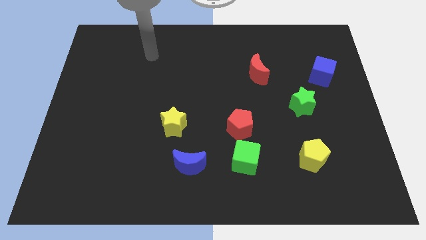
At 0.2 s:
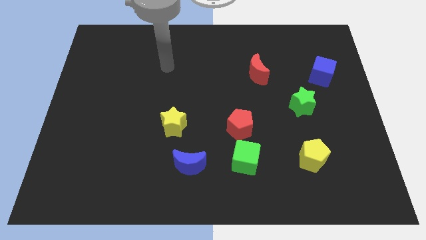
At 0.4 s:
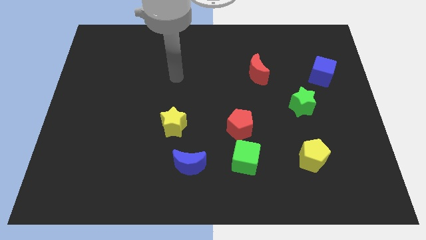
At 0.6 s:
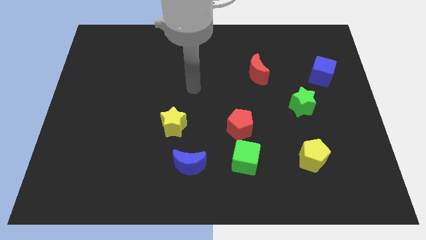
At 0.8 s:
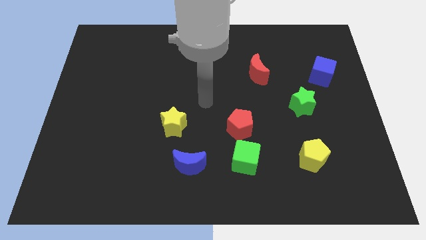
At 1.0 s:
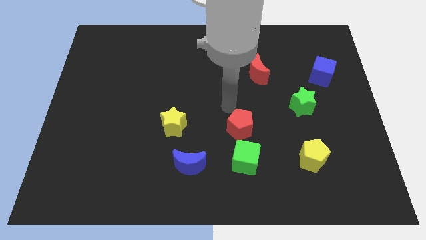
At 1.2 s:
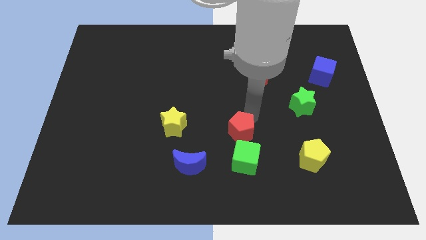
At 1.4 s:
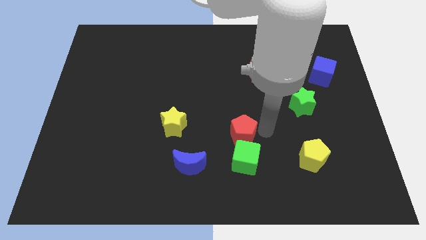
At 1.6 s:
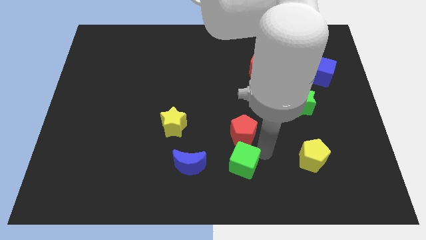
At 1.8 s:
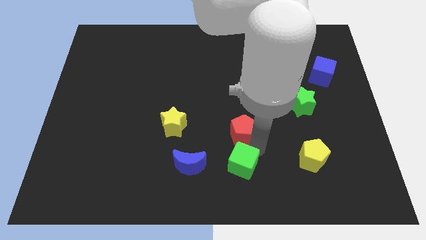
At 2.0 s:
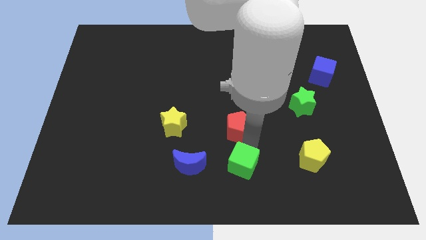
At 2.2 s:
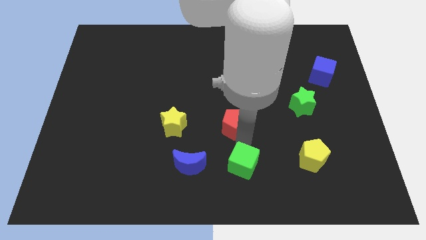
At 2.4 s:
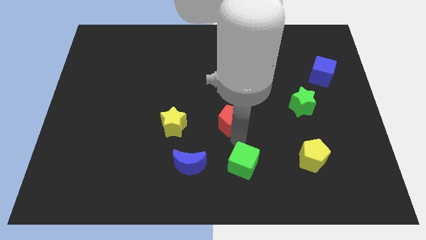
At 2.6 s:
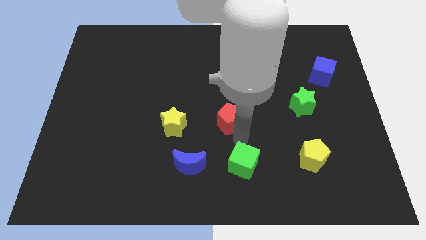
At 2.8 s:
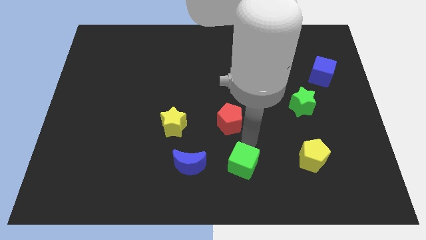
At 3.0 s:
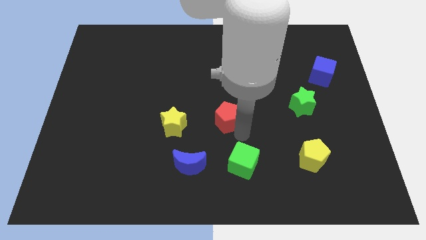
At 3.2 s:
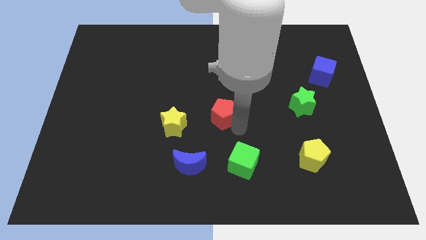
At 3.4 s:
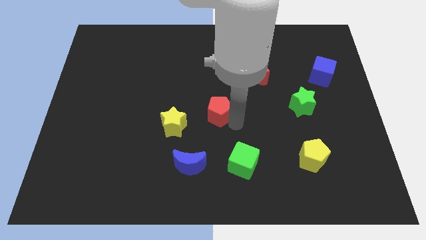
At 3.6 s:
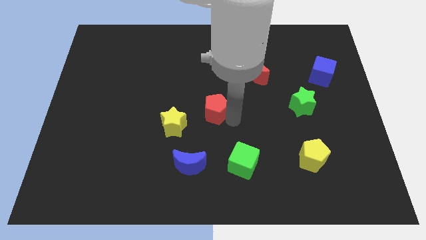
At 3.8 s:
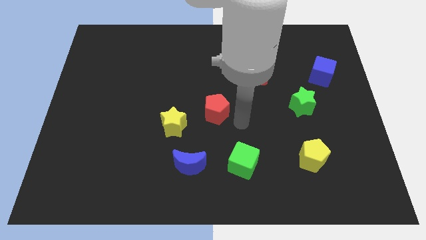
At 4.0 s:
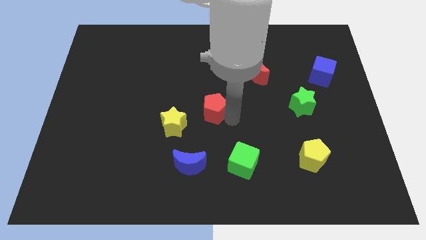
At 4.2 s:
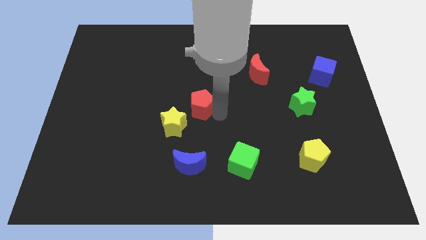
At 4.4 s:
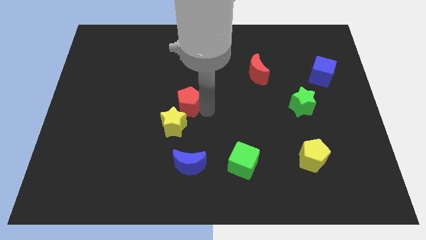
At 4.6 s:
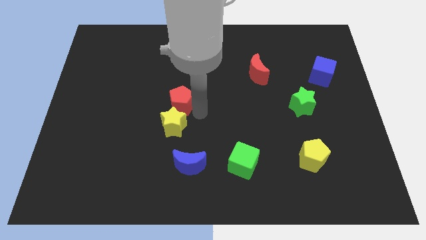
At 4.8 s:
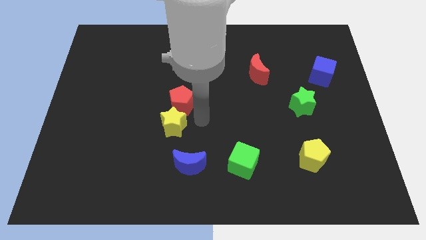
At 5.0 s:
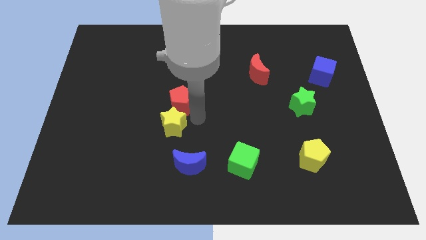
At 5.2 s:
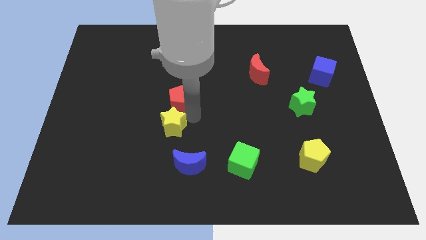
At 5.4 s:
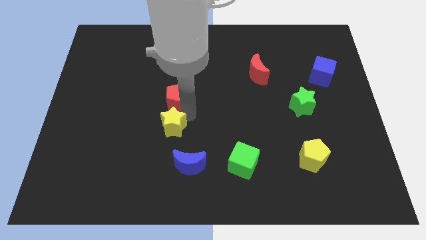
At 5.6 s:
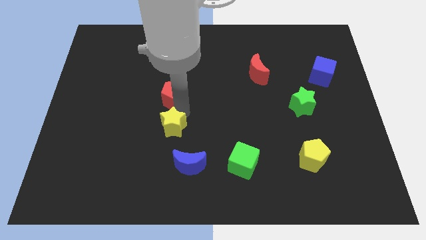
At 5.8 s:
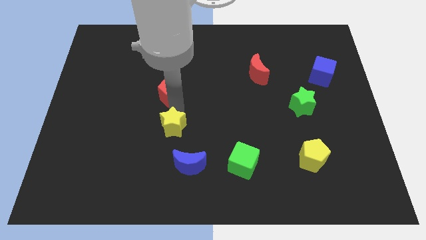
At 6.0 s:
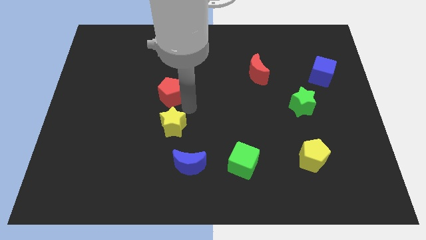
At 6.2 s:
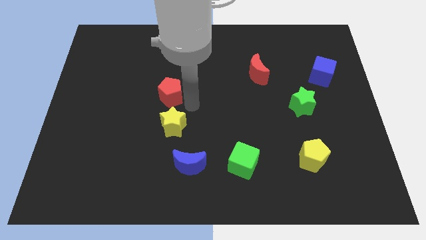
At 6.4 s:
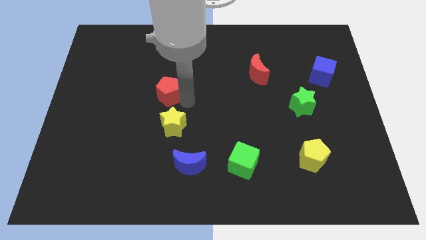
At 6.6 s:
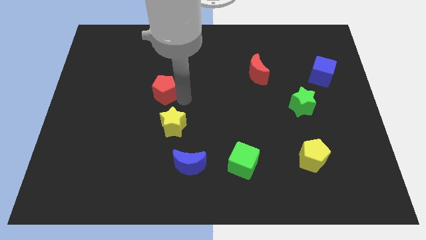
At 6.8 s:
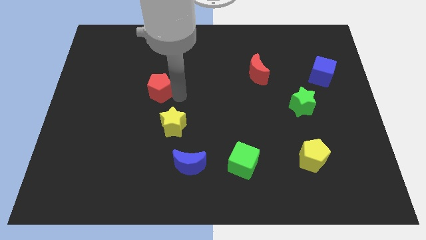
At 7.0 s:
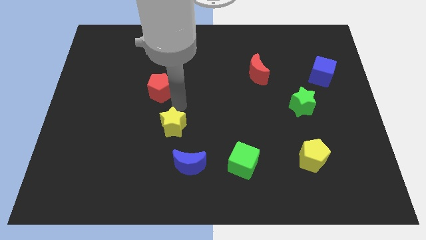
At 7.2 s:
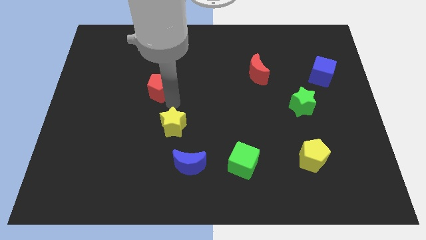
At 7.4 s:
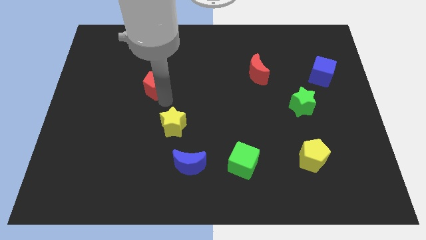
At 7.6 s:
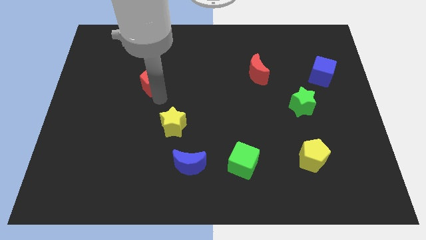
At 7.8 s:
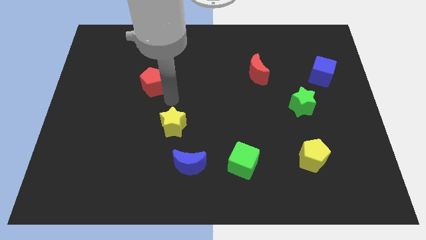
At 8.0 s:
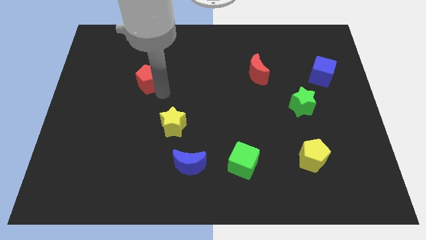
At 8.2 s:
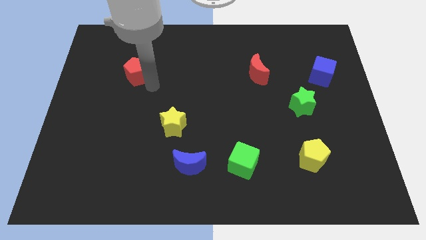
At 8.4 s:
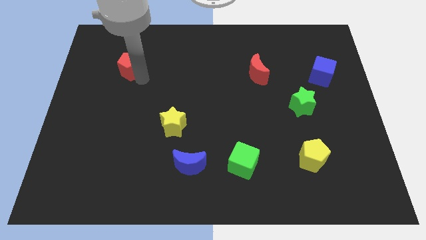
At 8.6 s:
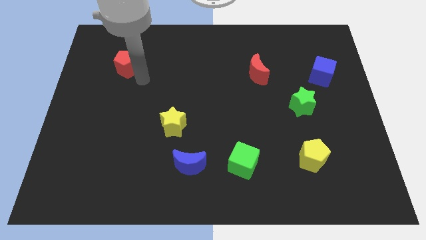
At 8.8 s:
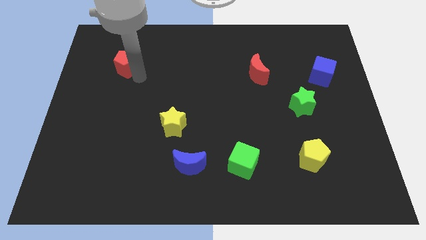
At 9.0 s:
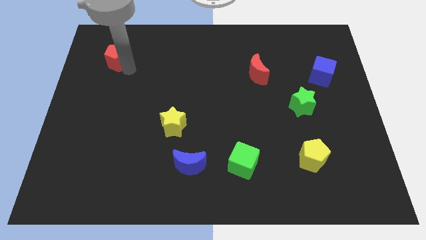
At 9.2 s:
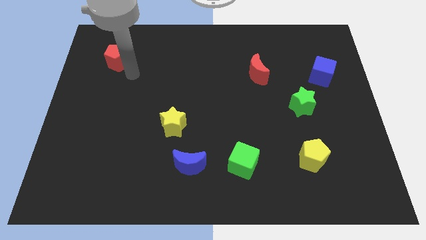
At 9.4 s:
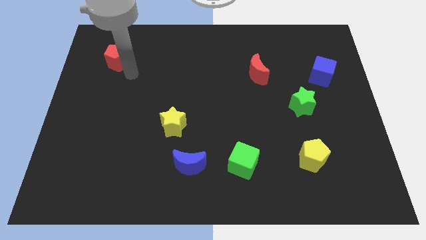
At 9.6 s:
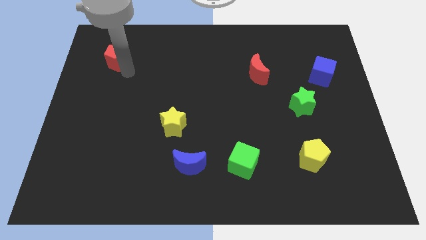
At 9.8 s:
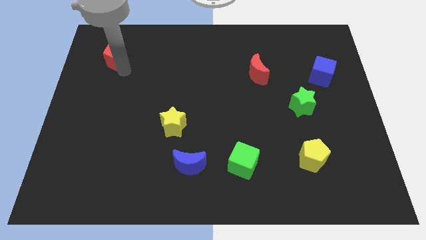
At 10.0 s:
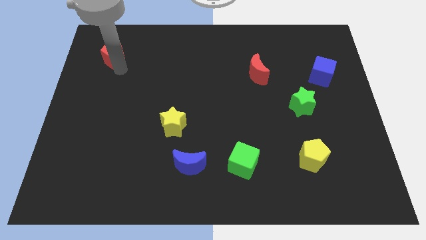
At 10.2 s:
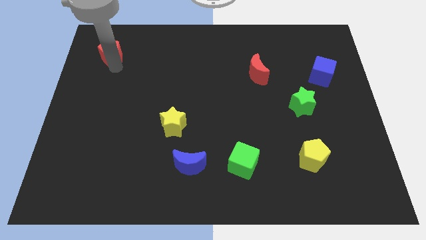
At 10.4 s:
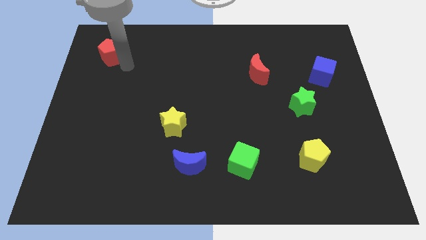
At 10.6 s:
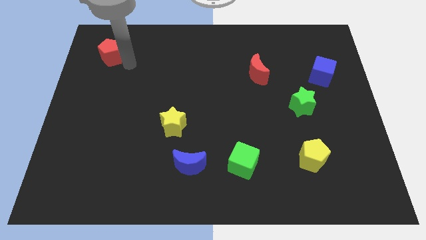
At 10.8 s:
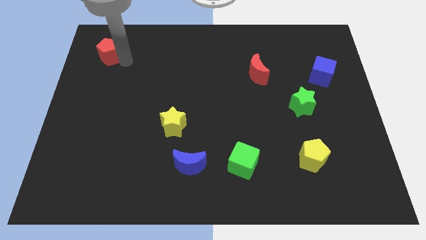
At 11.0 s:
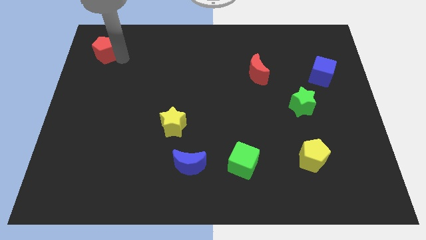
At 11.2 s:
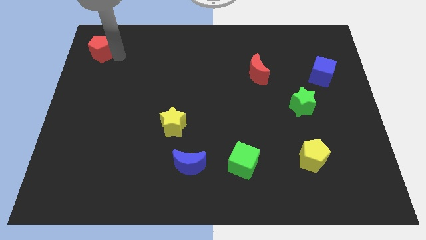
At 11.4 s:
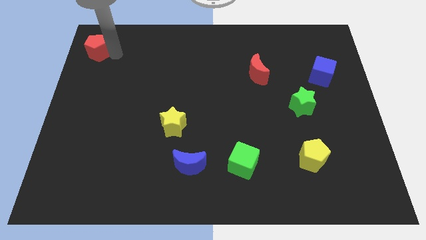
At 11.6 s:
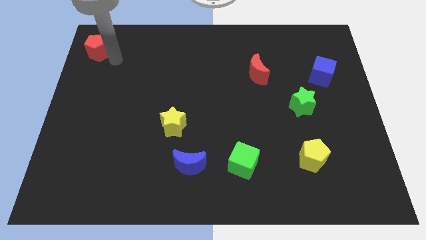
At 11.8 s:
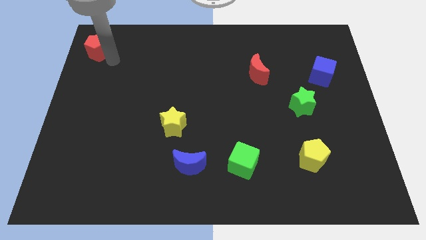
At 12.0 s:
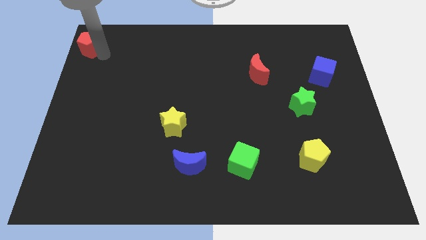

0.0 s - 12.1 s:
slide the red pentagon to the top left

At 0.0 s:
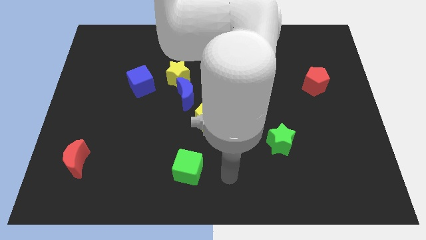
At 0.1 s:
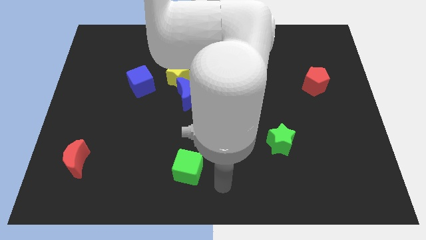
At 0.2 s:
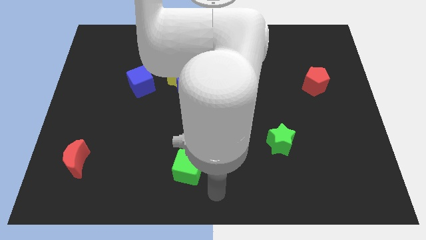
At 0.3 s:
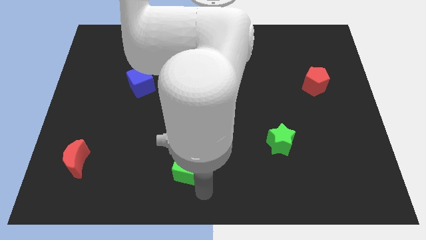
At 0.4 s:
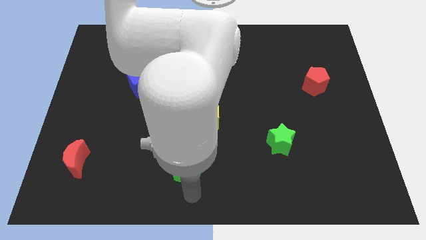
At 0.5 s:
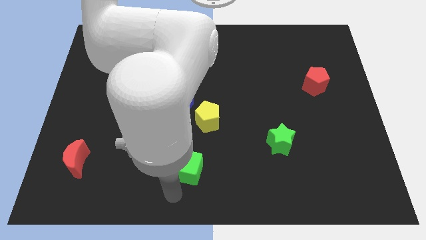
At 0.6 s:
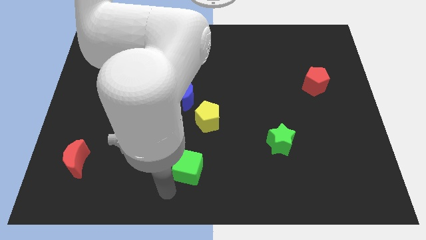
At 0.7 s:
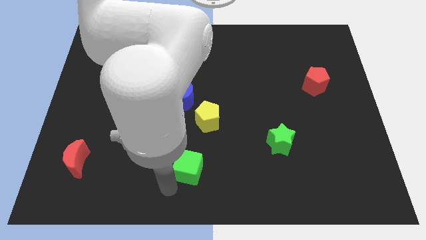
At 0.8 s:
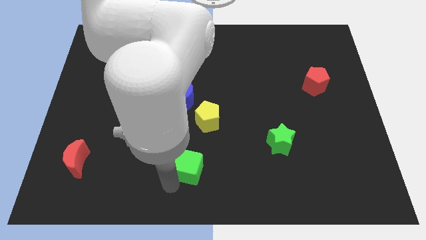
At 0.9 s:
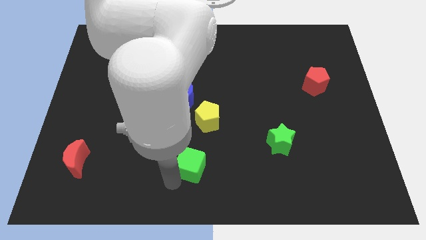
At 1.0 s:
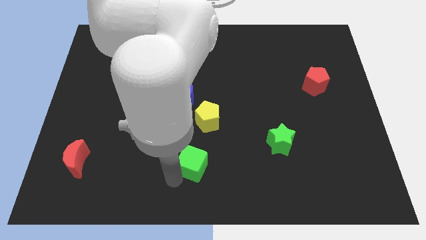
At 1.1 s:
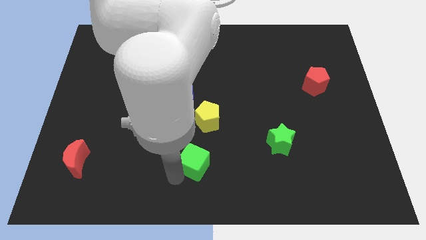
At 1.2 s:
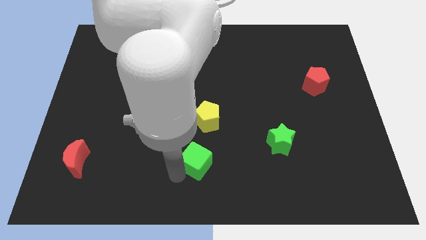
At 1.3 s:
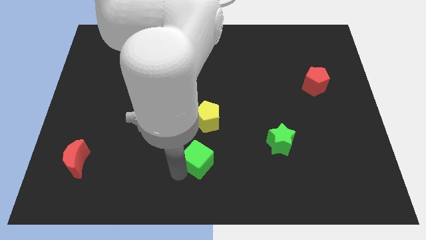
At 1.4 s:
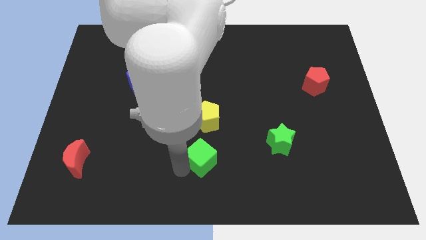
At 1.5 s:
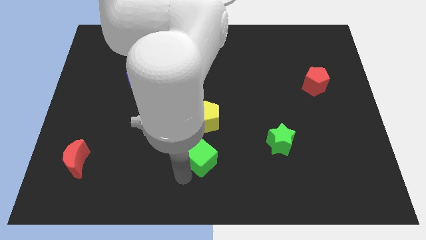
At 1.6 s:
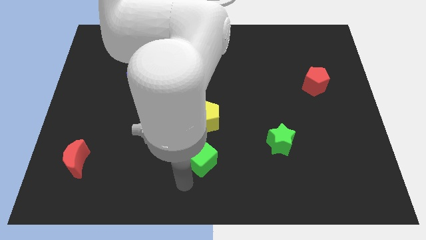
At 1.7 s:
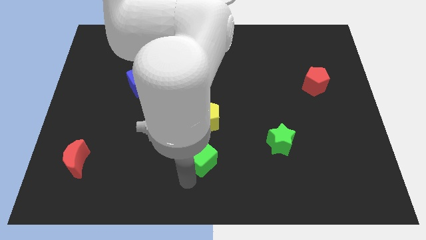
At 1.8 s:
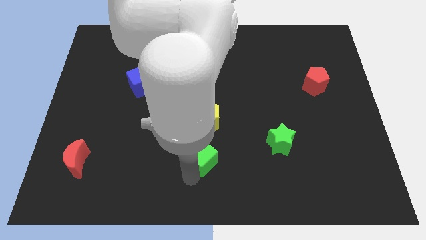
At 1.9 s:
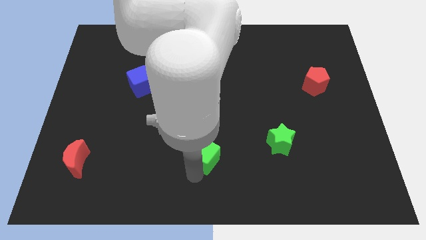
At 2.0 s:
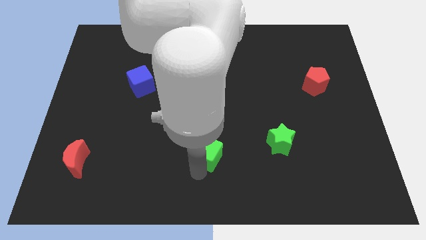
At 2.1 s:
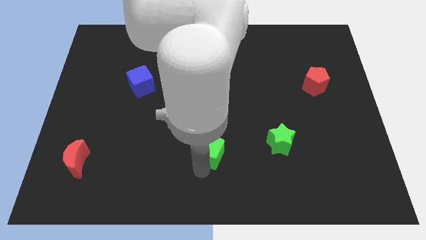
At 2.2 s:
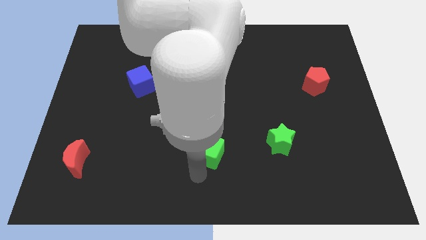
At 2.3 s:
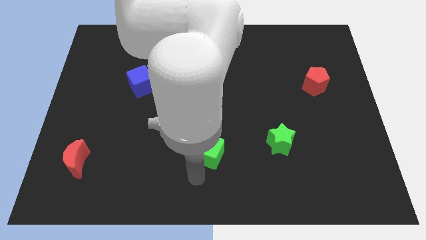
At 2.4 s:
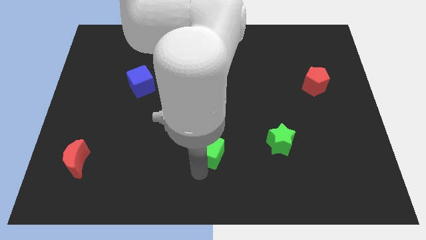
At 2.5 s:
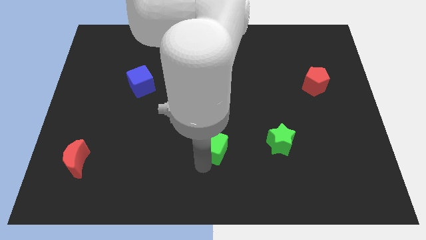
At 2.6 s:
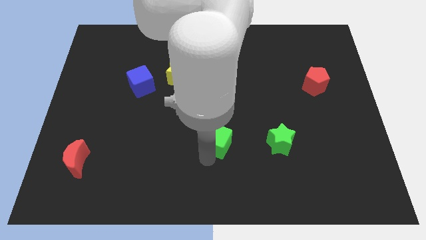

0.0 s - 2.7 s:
put the green cube to the middle
